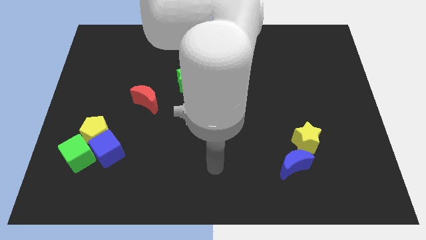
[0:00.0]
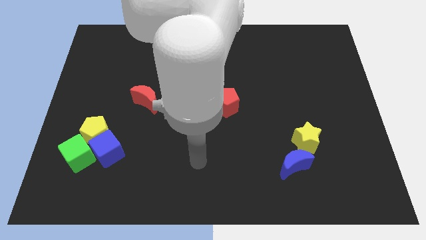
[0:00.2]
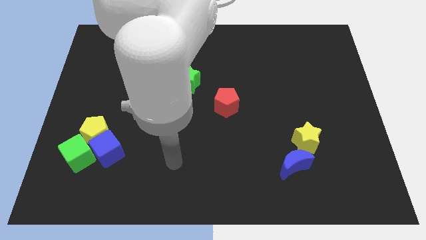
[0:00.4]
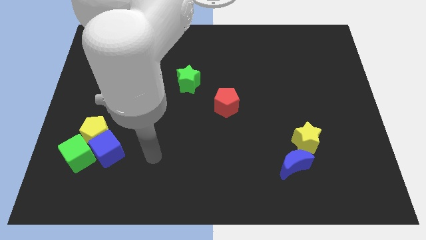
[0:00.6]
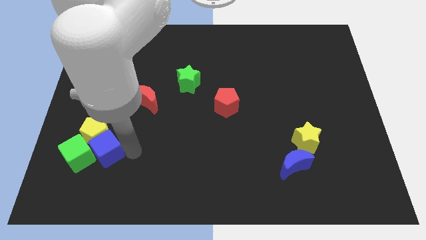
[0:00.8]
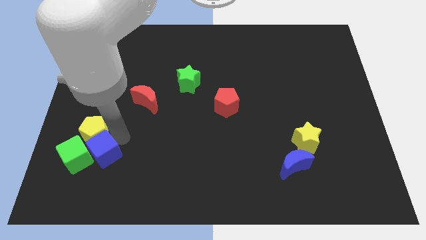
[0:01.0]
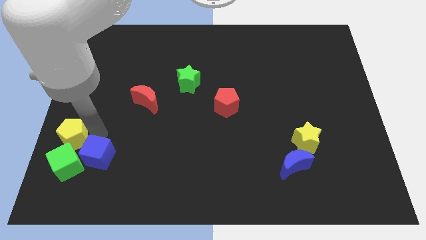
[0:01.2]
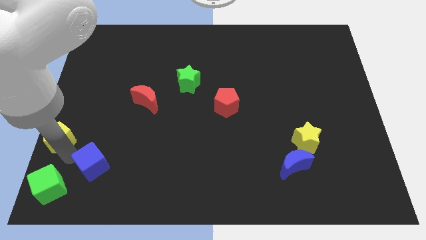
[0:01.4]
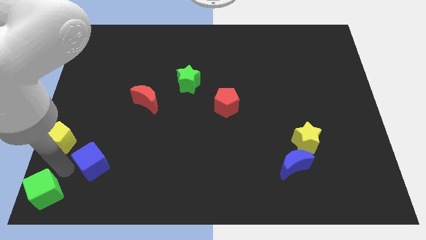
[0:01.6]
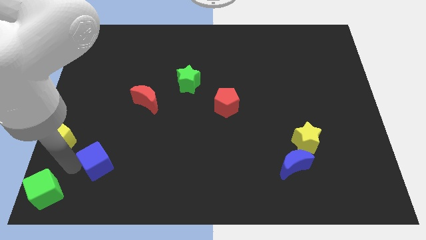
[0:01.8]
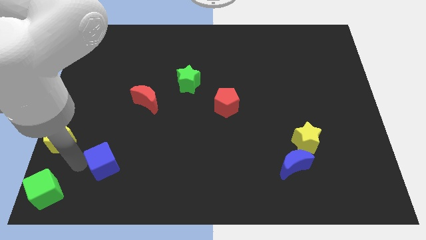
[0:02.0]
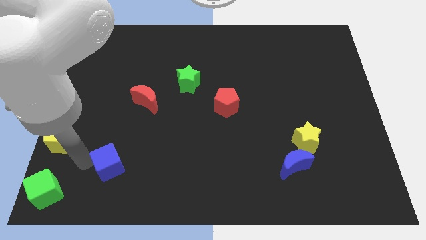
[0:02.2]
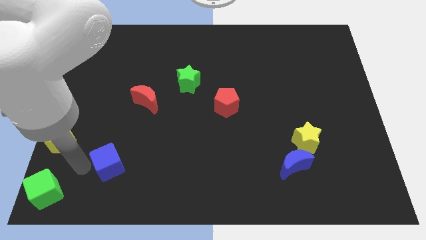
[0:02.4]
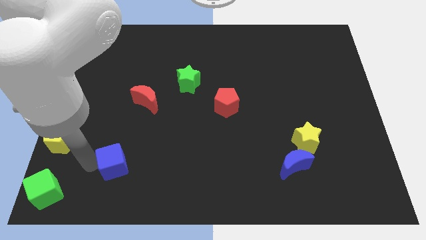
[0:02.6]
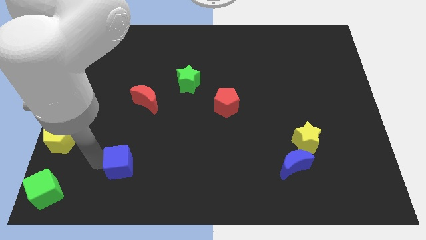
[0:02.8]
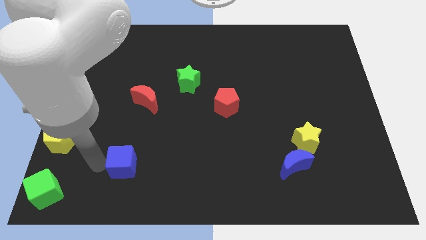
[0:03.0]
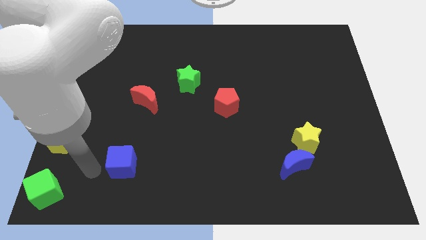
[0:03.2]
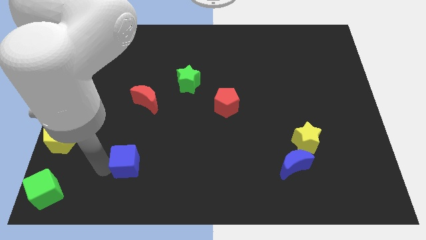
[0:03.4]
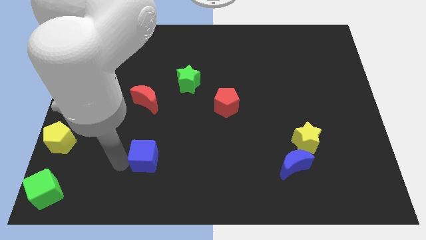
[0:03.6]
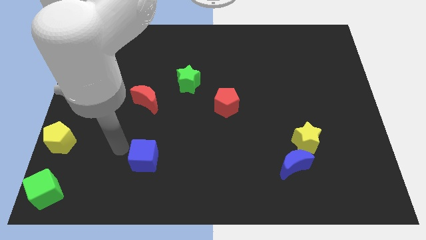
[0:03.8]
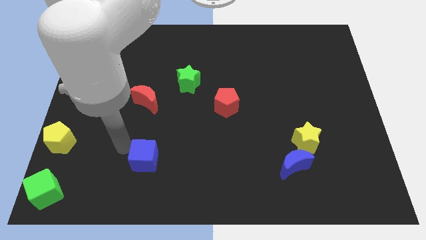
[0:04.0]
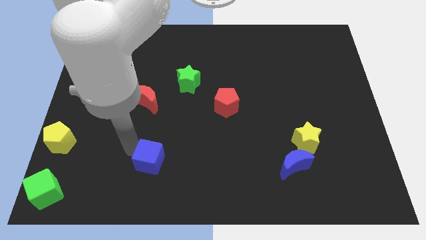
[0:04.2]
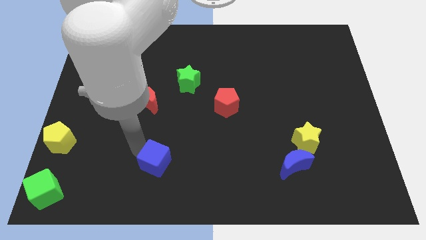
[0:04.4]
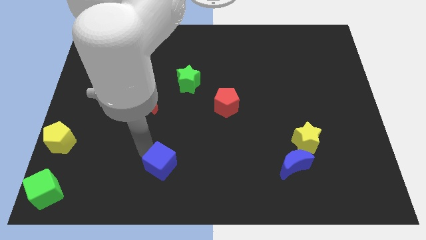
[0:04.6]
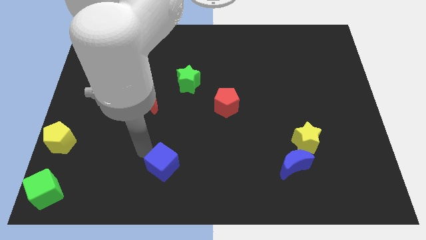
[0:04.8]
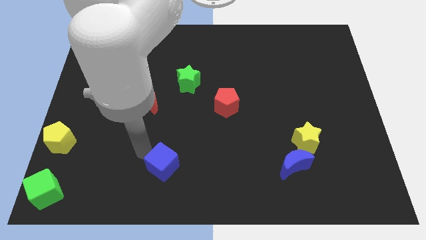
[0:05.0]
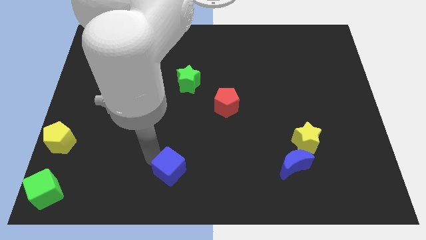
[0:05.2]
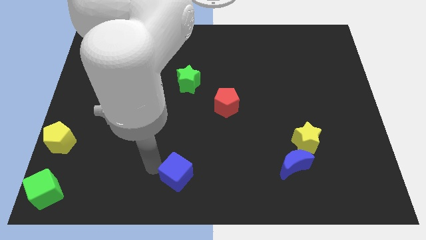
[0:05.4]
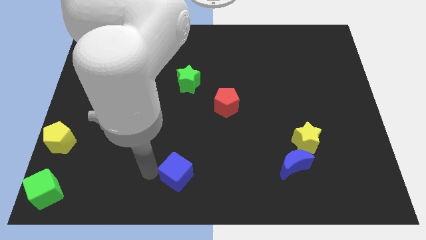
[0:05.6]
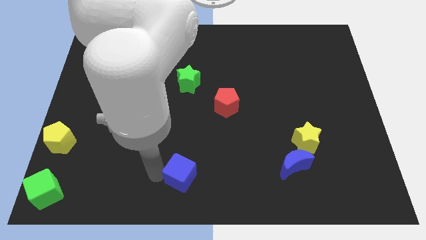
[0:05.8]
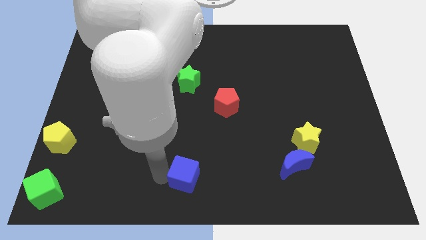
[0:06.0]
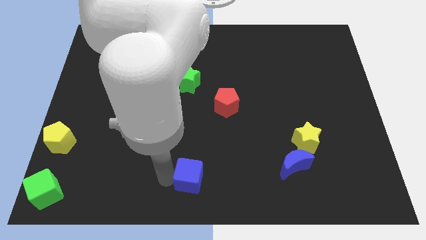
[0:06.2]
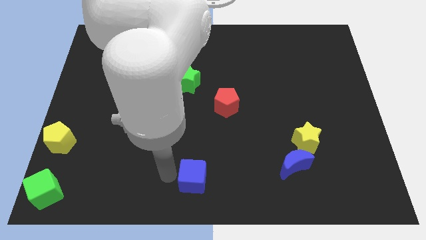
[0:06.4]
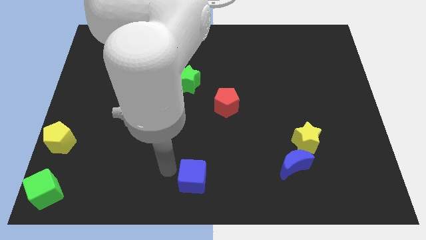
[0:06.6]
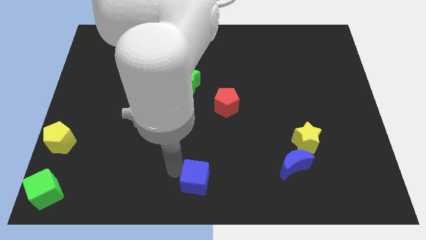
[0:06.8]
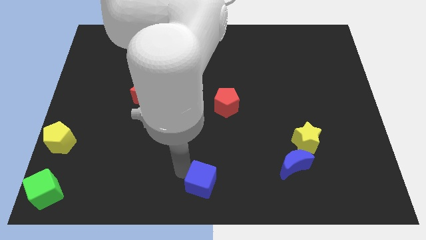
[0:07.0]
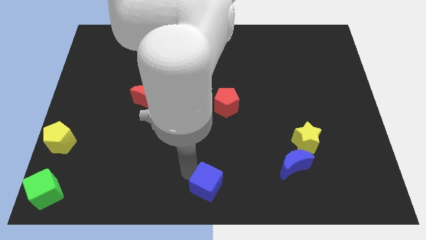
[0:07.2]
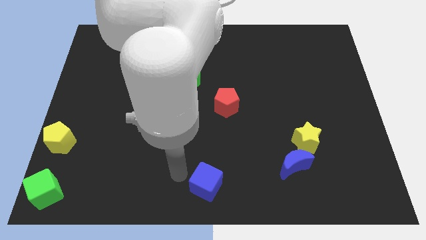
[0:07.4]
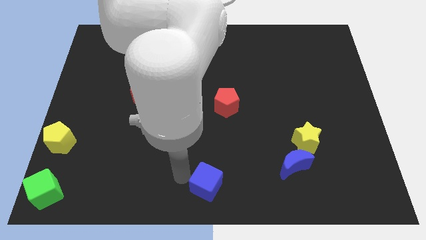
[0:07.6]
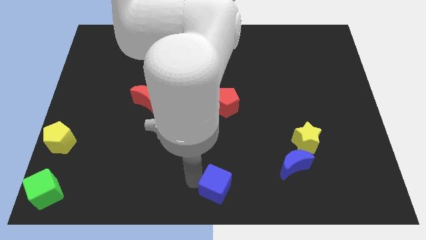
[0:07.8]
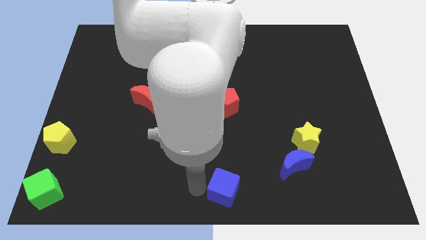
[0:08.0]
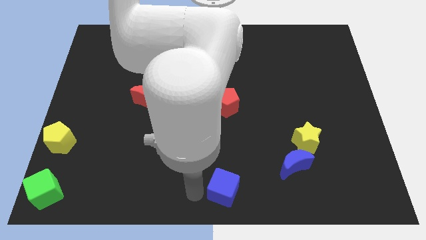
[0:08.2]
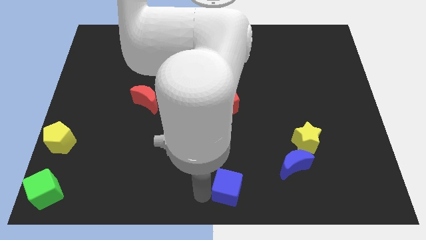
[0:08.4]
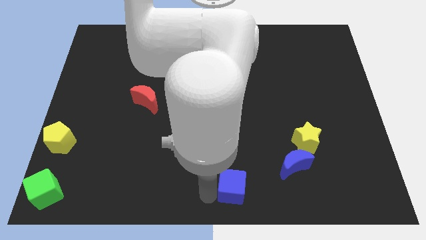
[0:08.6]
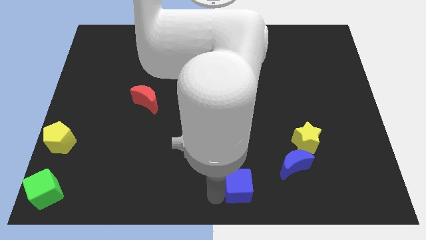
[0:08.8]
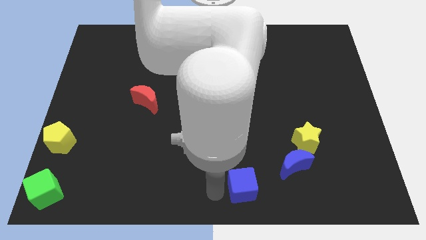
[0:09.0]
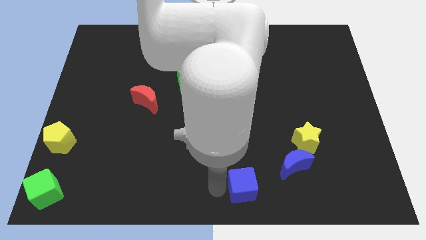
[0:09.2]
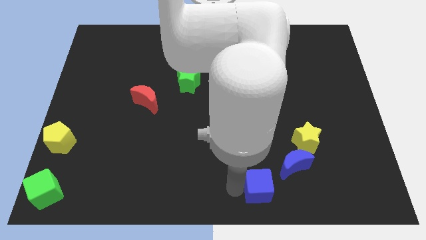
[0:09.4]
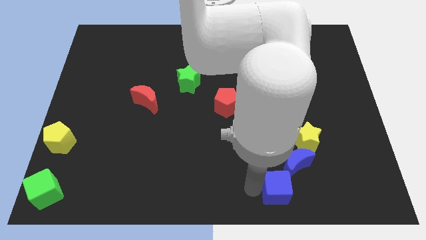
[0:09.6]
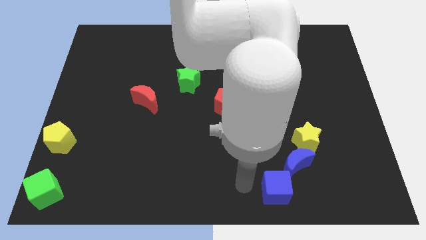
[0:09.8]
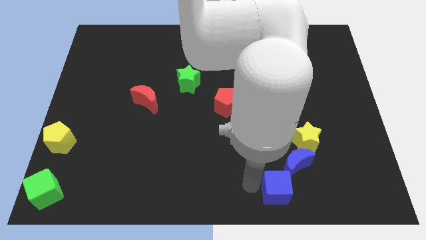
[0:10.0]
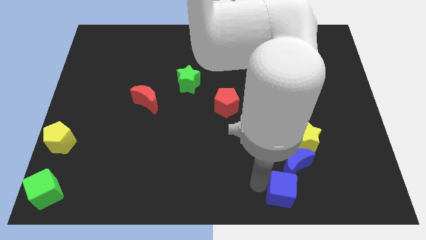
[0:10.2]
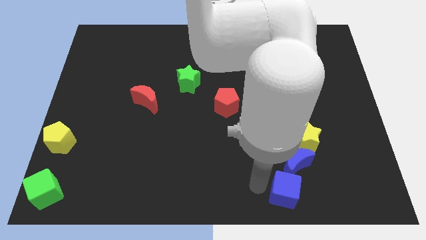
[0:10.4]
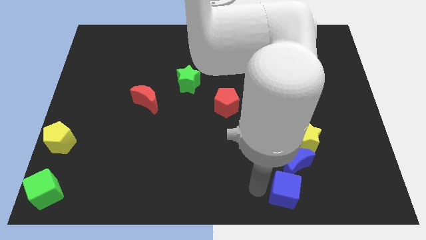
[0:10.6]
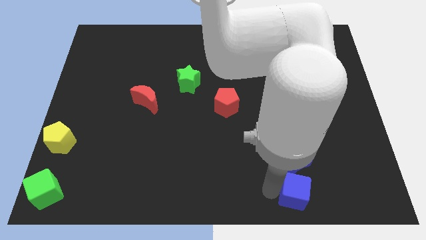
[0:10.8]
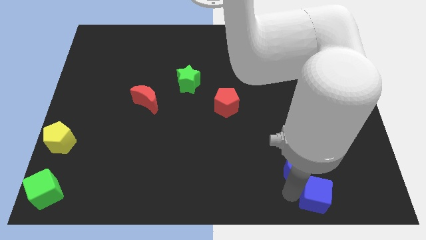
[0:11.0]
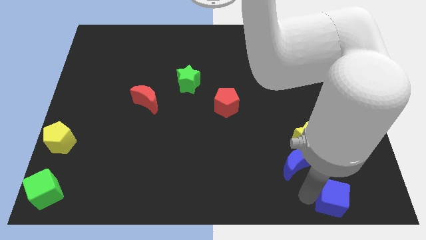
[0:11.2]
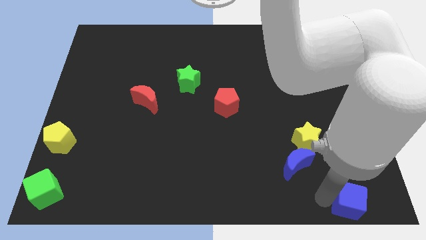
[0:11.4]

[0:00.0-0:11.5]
put the blue cube to the bottom right of the board

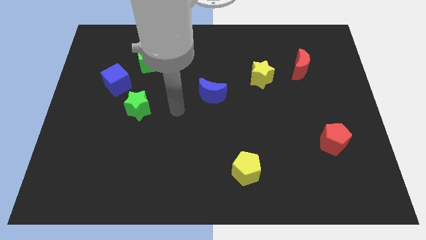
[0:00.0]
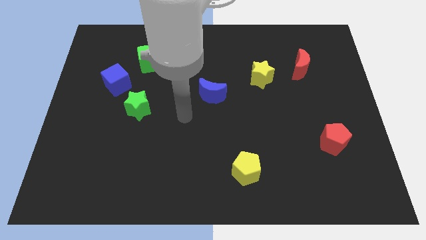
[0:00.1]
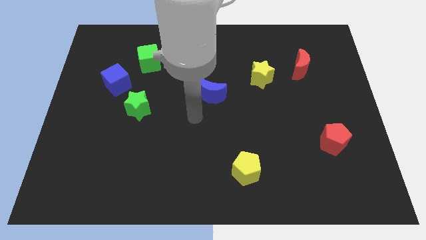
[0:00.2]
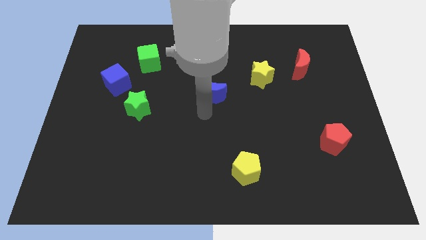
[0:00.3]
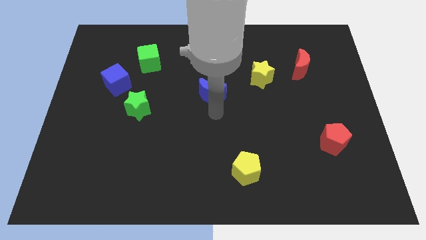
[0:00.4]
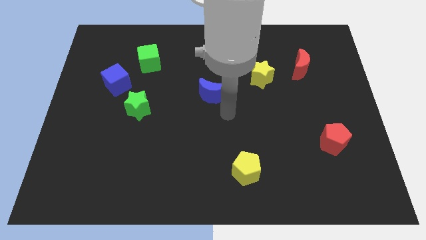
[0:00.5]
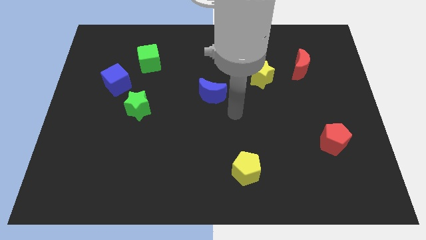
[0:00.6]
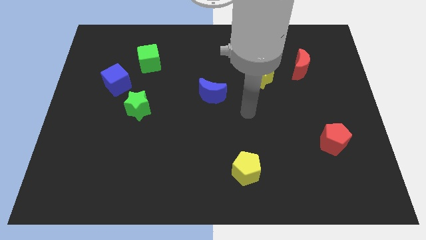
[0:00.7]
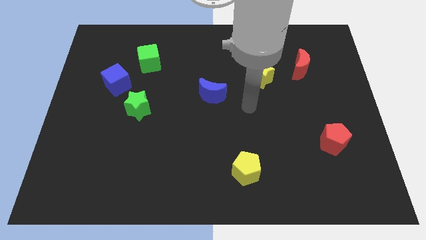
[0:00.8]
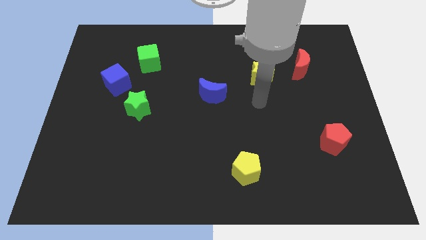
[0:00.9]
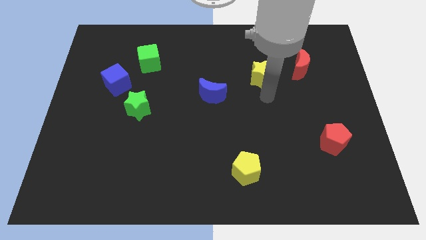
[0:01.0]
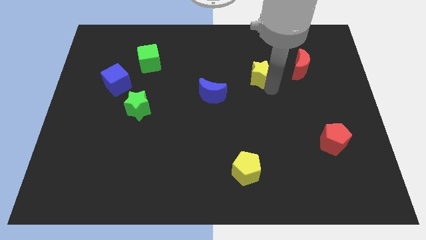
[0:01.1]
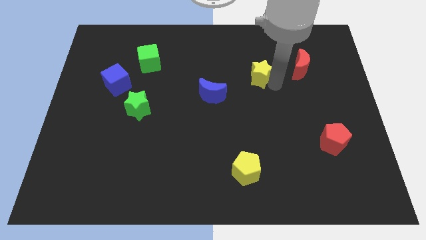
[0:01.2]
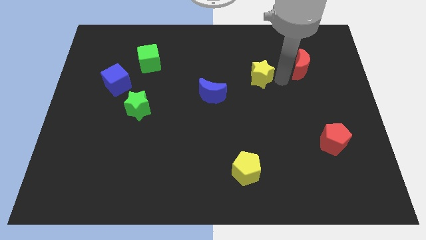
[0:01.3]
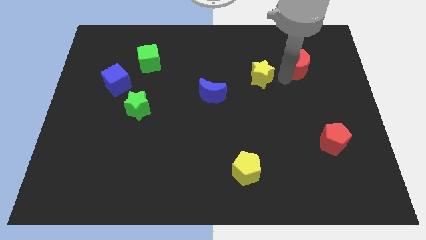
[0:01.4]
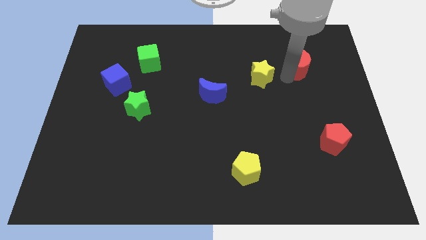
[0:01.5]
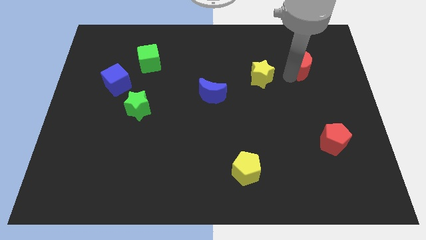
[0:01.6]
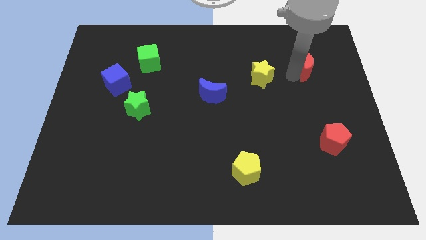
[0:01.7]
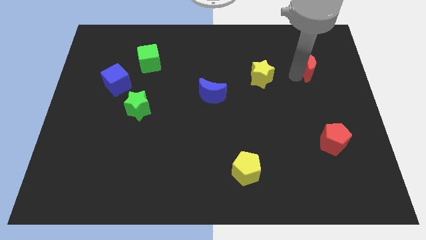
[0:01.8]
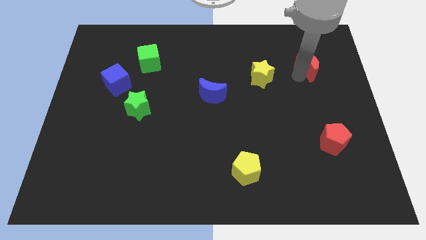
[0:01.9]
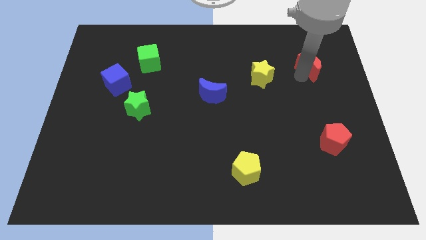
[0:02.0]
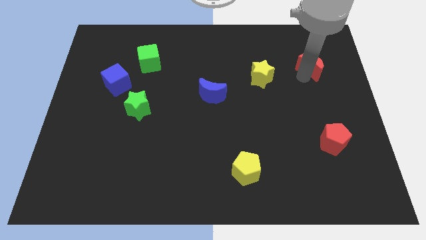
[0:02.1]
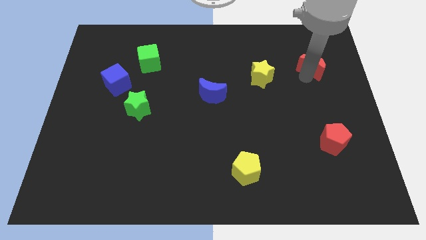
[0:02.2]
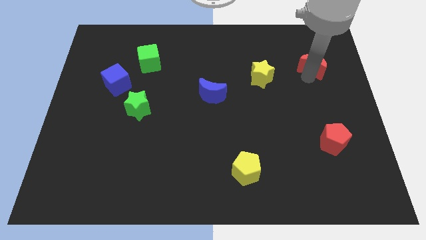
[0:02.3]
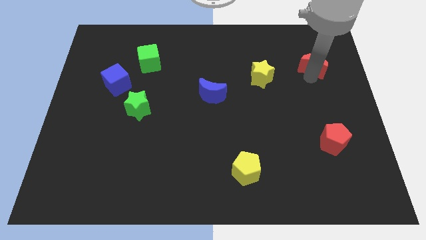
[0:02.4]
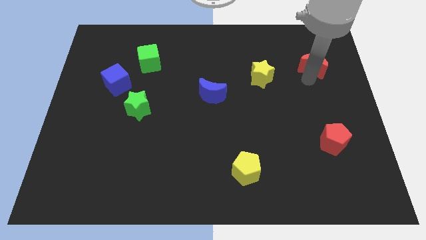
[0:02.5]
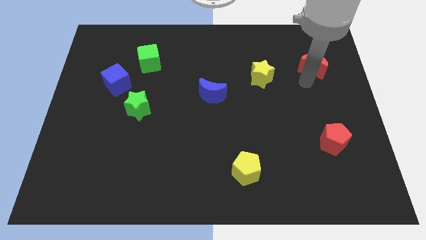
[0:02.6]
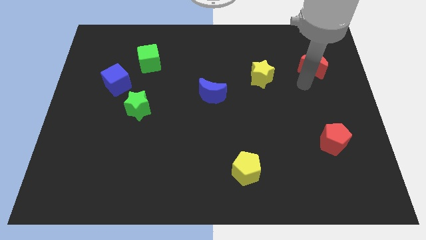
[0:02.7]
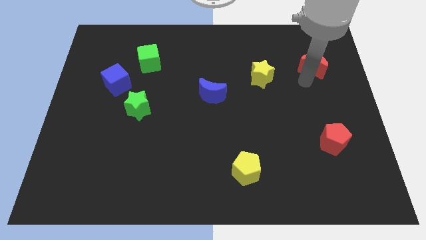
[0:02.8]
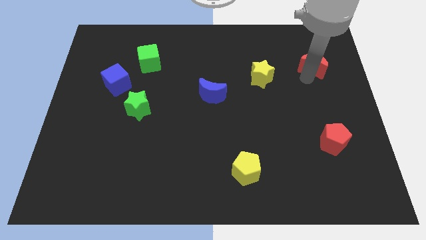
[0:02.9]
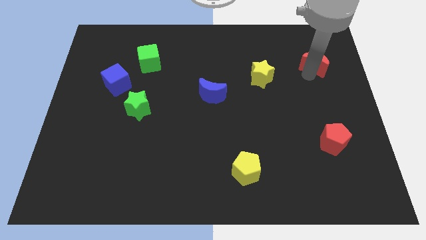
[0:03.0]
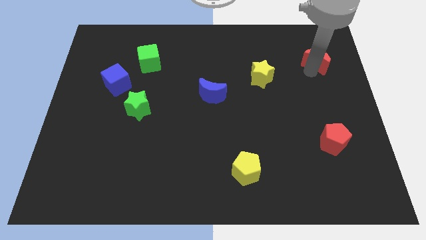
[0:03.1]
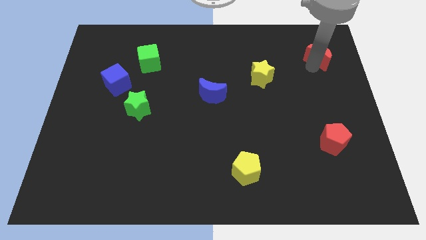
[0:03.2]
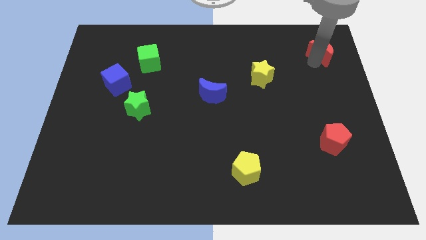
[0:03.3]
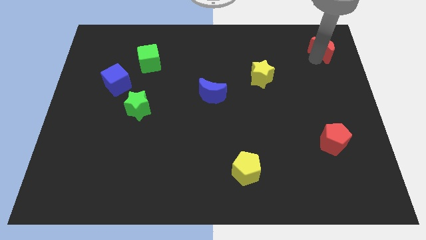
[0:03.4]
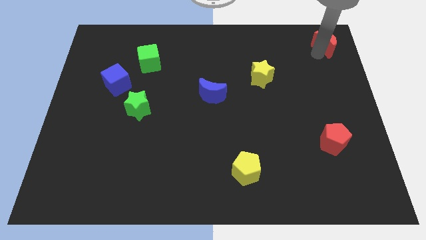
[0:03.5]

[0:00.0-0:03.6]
move the red moon to the top right corner
